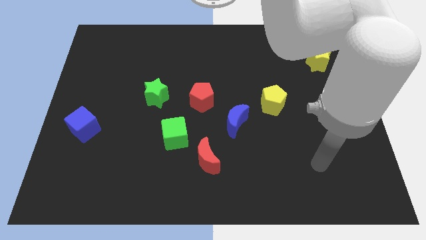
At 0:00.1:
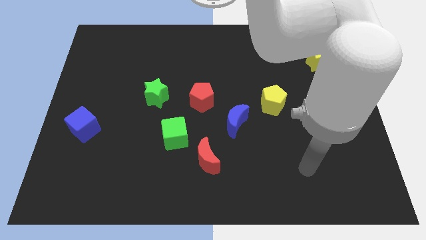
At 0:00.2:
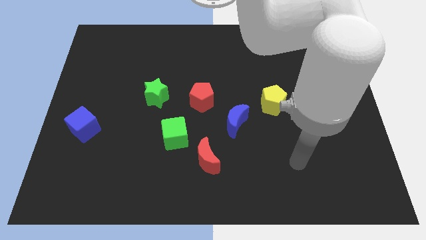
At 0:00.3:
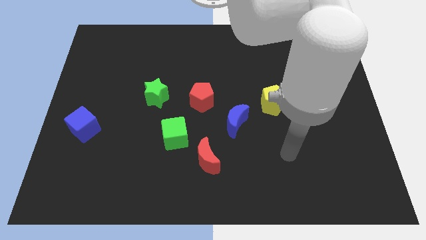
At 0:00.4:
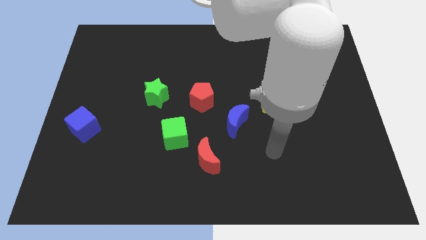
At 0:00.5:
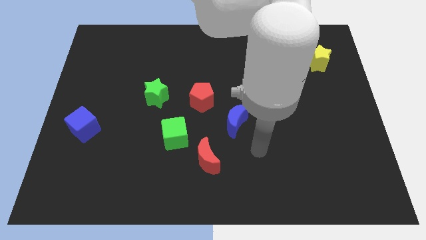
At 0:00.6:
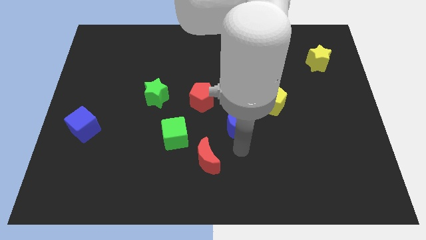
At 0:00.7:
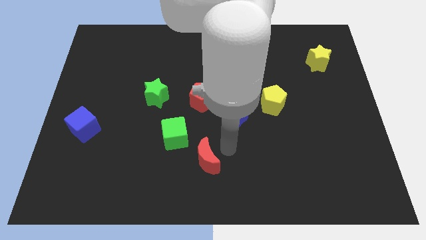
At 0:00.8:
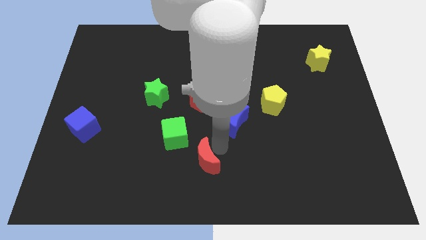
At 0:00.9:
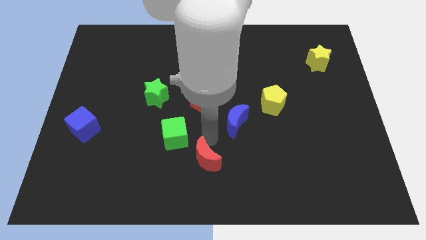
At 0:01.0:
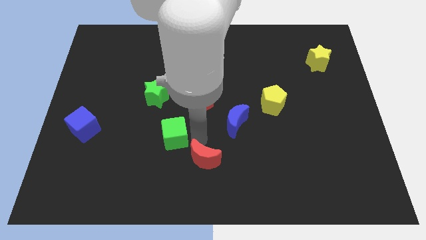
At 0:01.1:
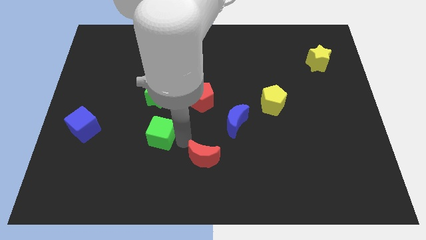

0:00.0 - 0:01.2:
pull the red moon apart from the green cube

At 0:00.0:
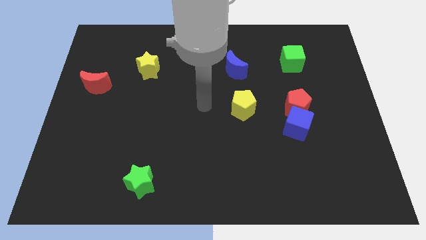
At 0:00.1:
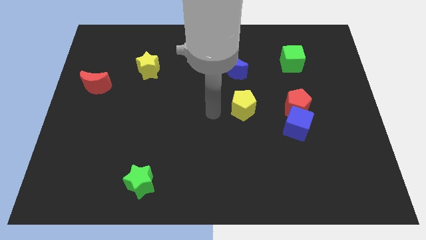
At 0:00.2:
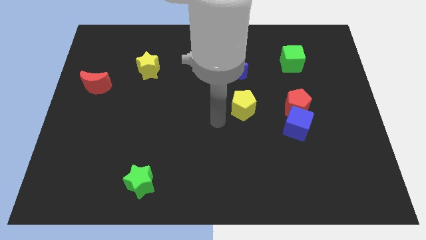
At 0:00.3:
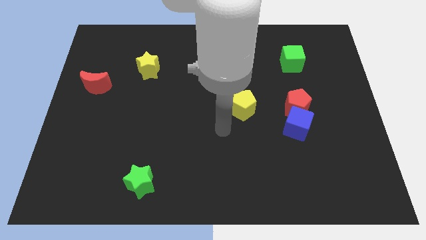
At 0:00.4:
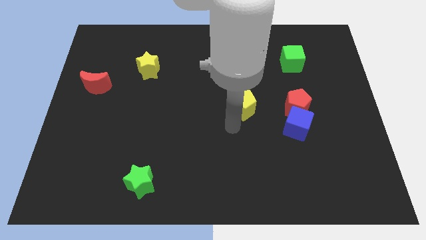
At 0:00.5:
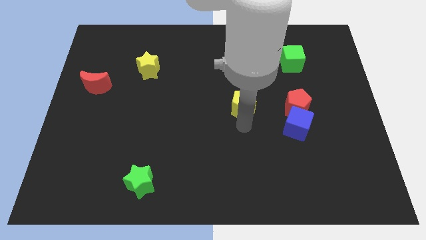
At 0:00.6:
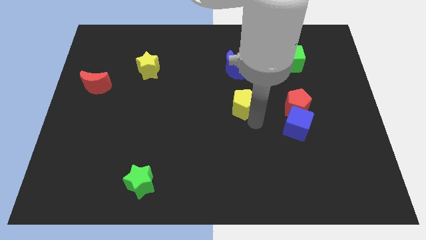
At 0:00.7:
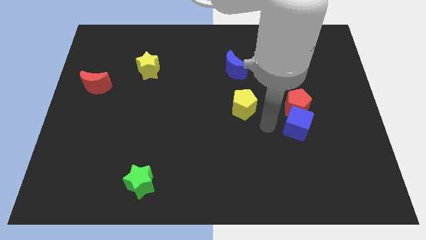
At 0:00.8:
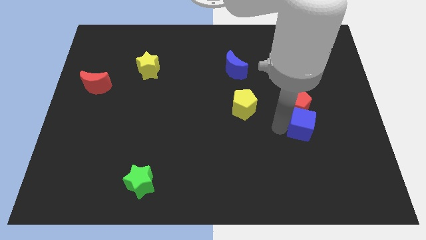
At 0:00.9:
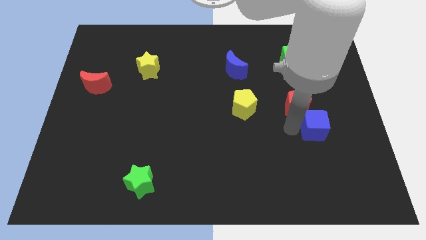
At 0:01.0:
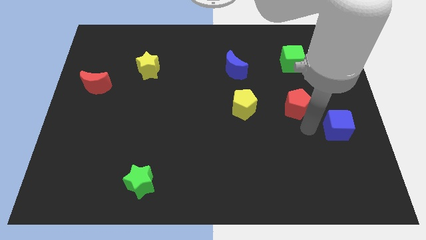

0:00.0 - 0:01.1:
pull the red pentagon apart from the blue cube

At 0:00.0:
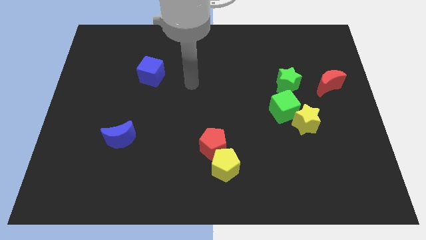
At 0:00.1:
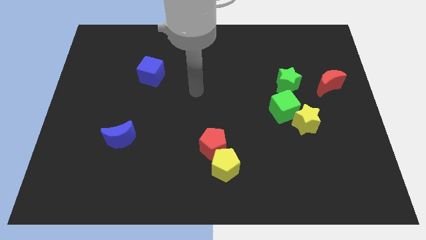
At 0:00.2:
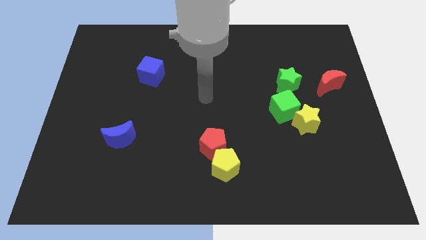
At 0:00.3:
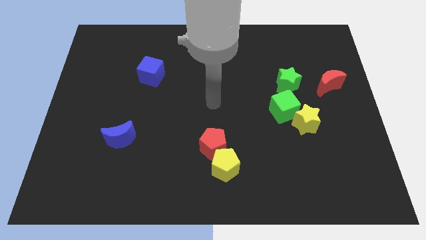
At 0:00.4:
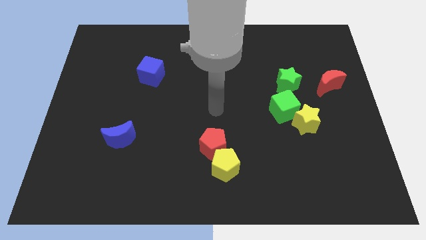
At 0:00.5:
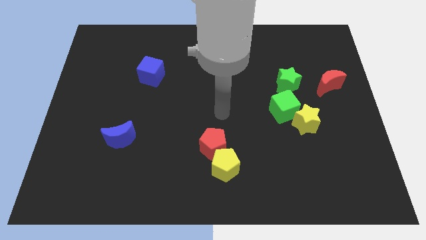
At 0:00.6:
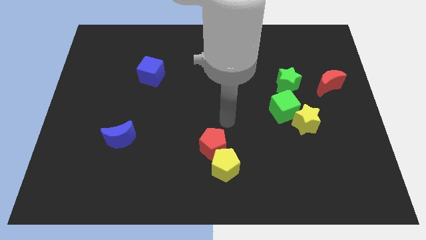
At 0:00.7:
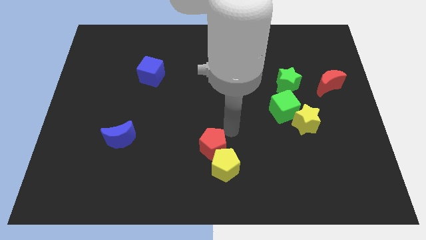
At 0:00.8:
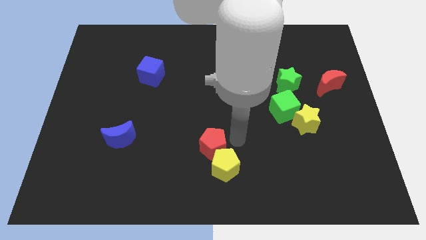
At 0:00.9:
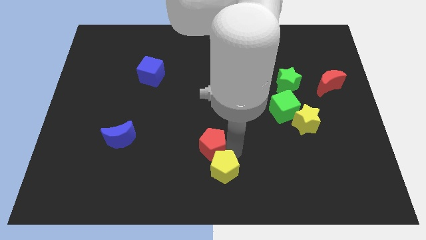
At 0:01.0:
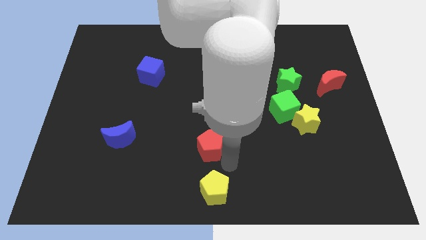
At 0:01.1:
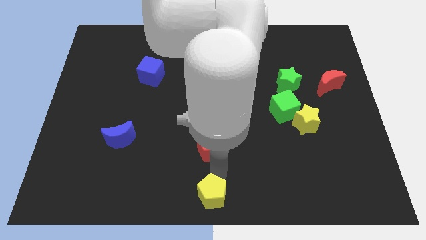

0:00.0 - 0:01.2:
separate the red pentagon from the yellow pentagon

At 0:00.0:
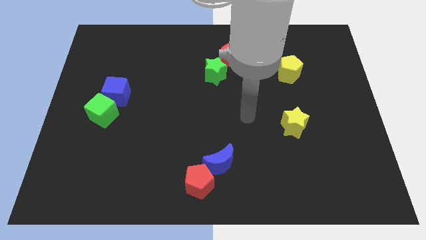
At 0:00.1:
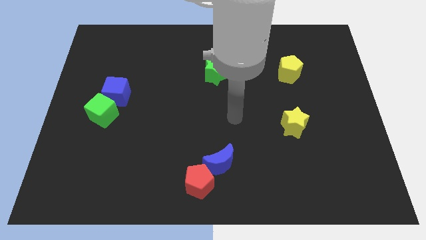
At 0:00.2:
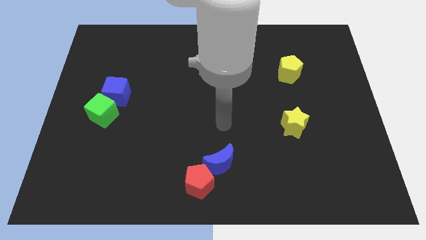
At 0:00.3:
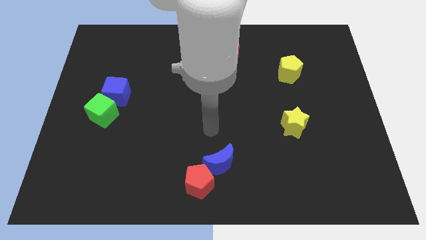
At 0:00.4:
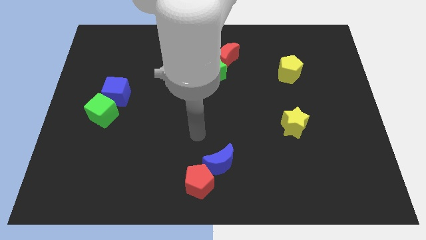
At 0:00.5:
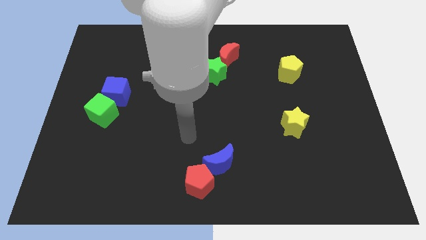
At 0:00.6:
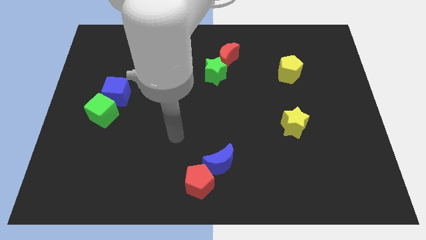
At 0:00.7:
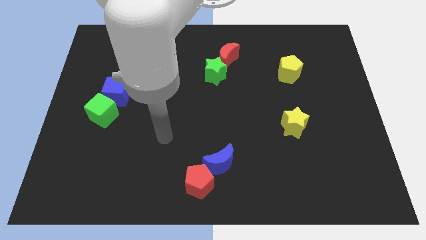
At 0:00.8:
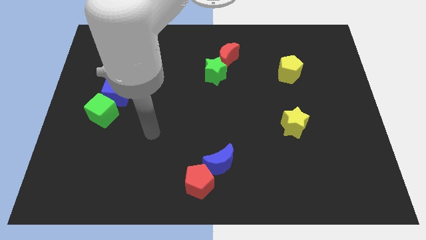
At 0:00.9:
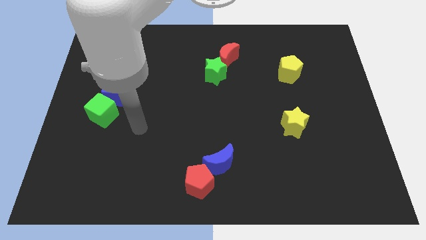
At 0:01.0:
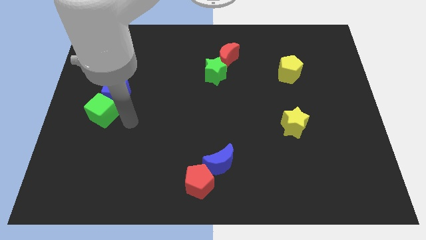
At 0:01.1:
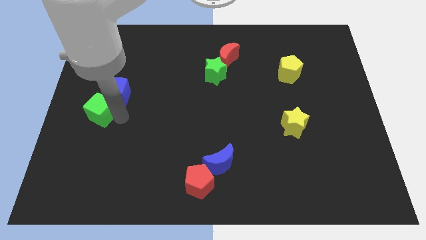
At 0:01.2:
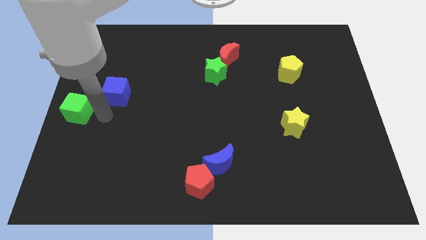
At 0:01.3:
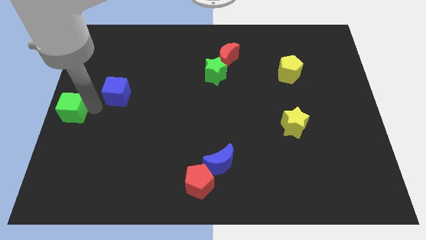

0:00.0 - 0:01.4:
separate the blue cube from the green cube

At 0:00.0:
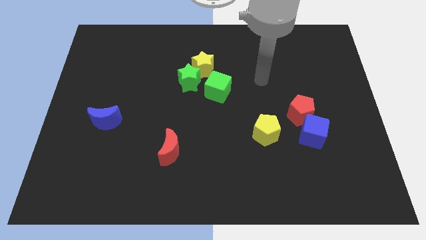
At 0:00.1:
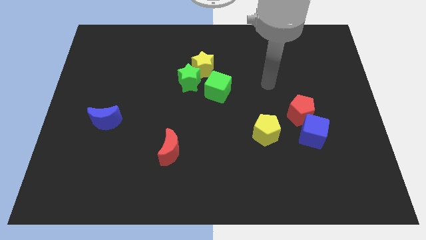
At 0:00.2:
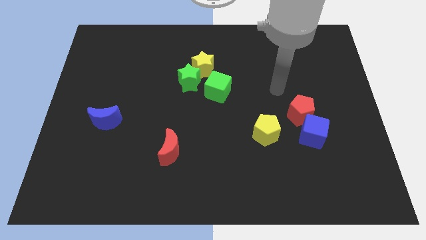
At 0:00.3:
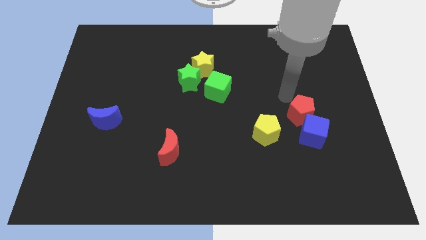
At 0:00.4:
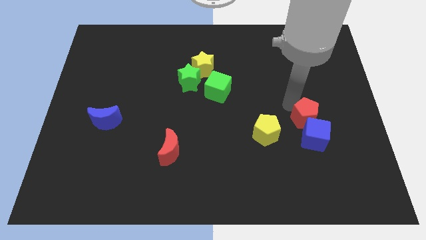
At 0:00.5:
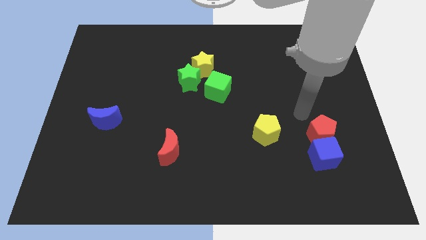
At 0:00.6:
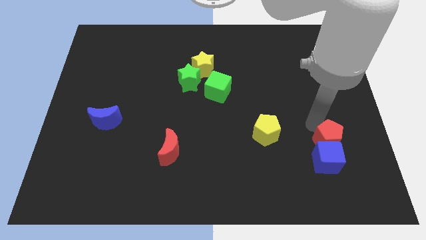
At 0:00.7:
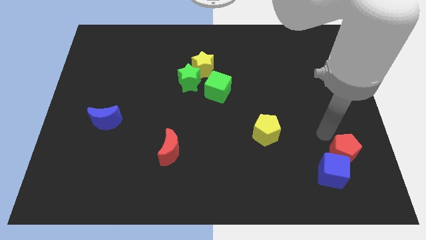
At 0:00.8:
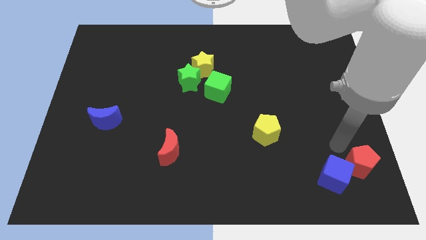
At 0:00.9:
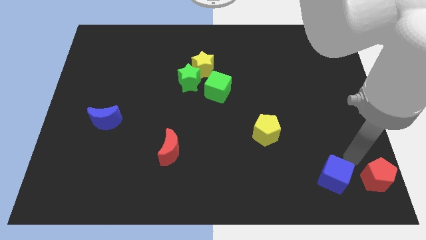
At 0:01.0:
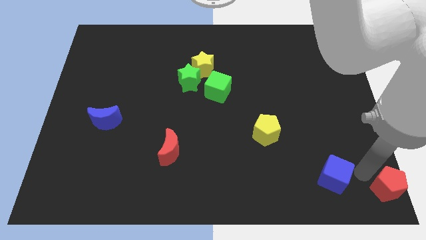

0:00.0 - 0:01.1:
move the blue cube away from the red pentagon

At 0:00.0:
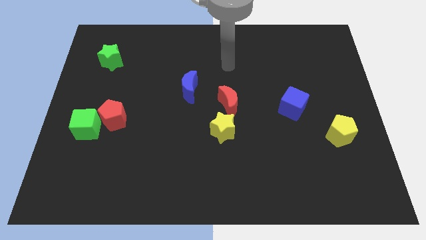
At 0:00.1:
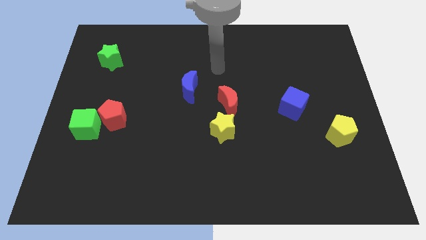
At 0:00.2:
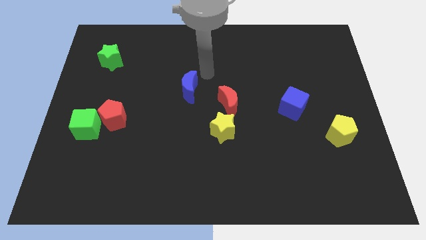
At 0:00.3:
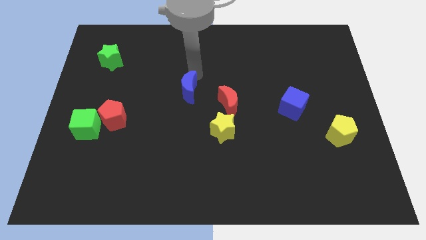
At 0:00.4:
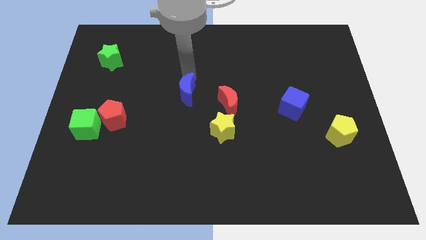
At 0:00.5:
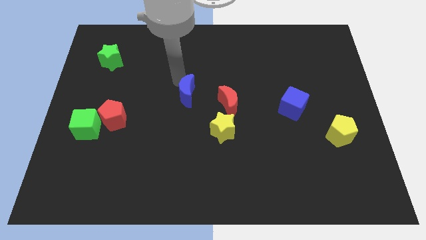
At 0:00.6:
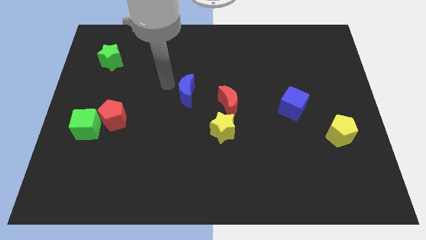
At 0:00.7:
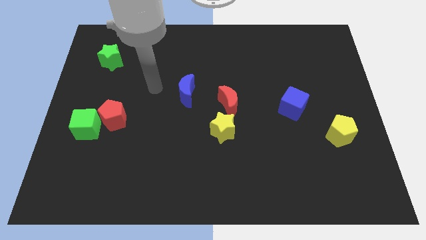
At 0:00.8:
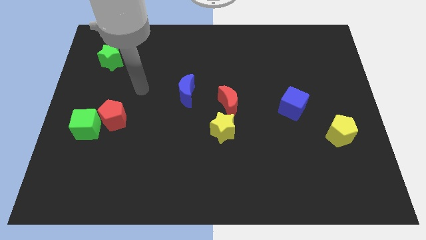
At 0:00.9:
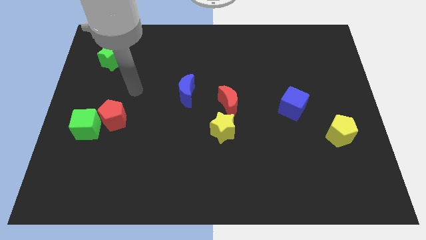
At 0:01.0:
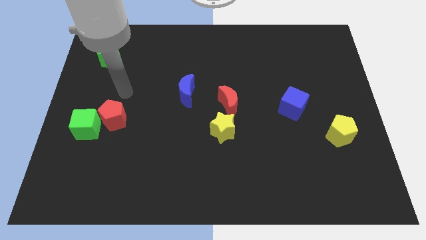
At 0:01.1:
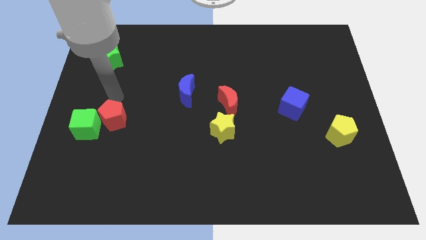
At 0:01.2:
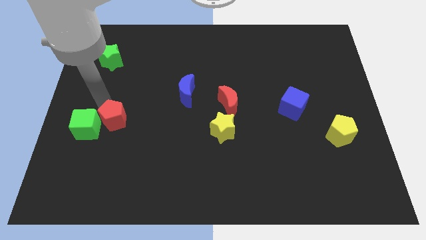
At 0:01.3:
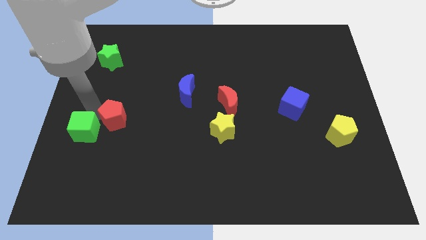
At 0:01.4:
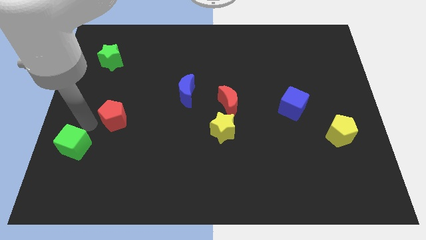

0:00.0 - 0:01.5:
move the red pentagon away from the green cube

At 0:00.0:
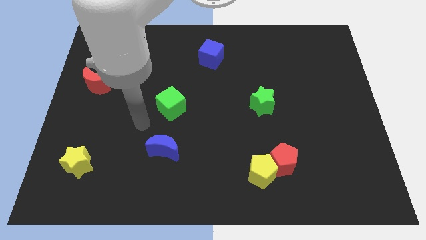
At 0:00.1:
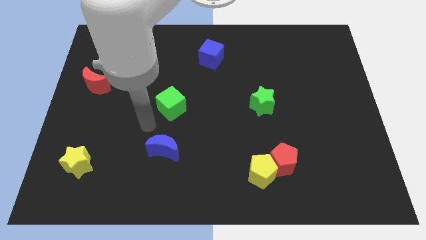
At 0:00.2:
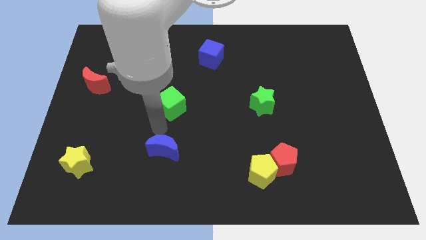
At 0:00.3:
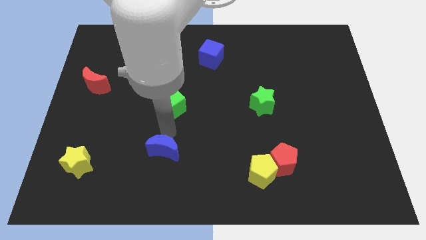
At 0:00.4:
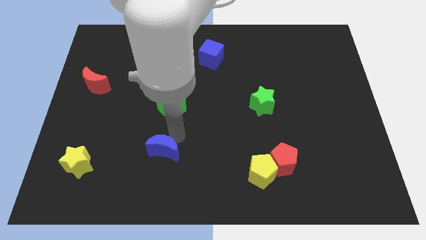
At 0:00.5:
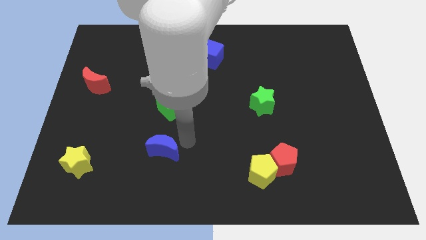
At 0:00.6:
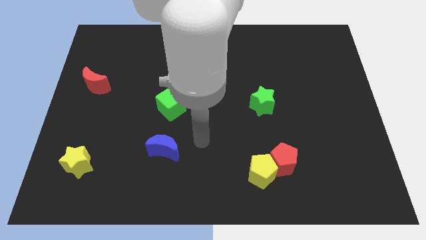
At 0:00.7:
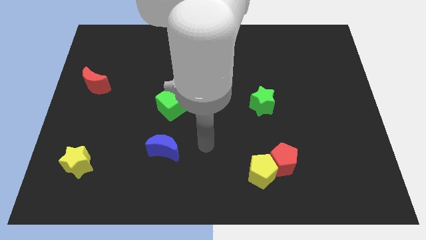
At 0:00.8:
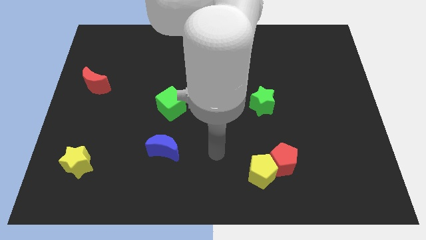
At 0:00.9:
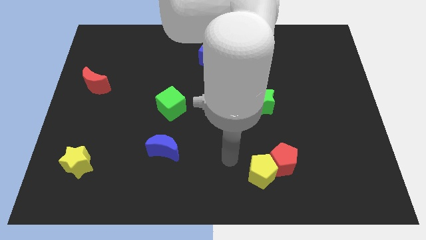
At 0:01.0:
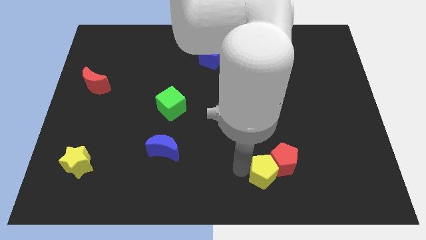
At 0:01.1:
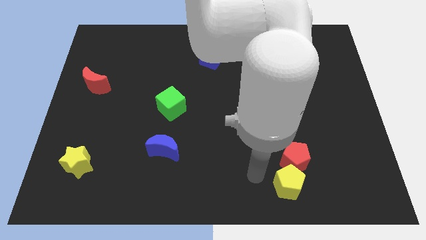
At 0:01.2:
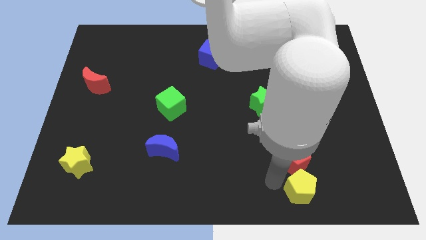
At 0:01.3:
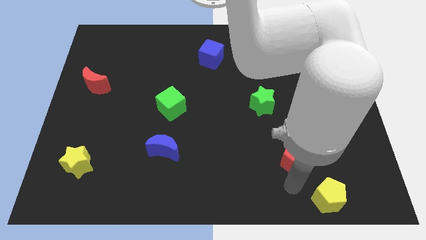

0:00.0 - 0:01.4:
pull the red pentagon apart from the yellow pentagon
